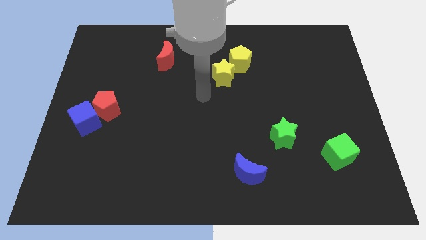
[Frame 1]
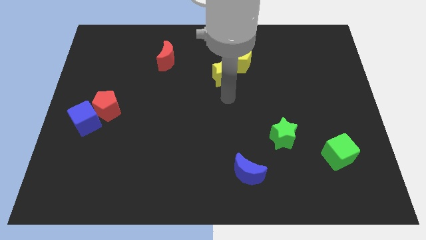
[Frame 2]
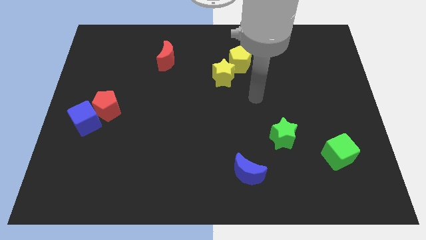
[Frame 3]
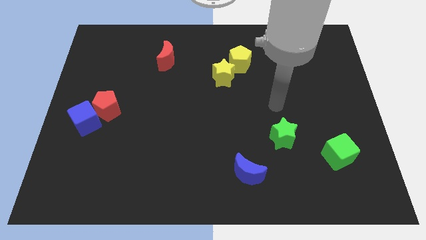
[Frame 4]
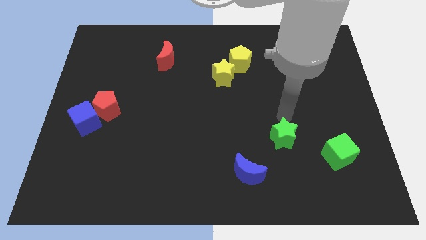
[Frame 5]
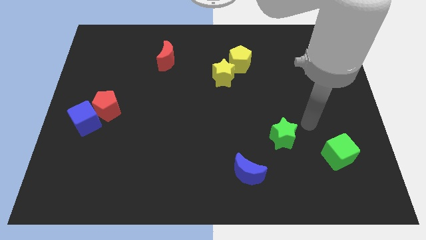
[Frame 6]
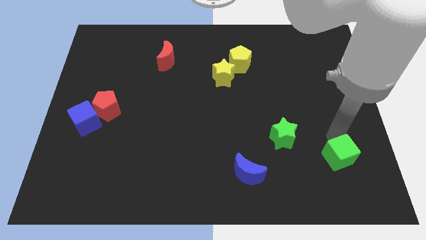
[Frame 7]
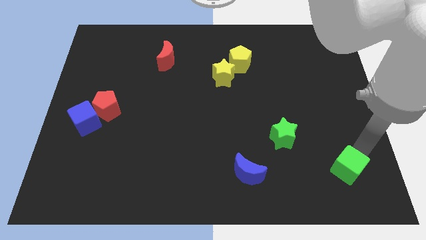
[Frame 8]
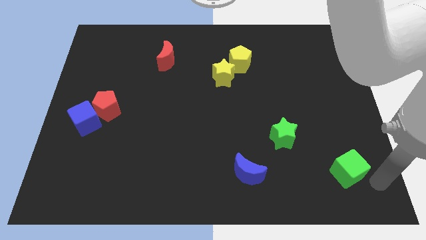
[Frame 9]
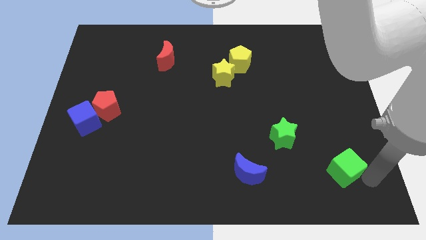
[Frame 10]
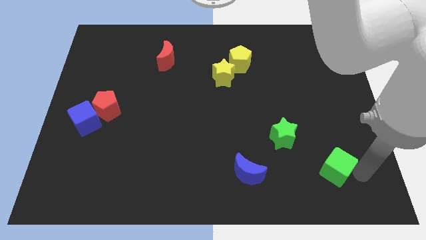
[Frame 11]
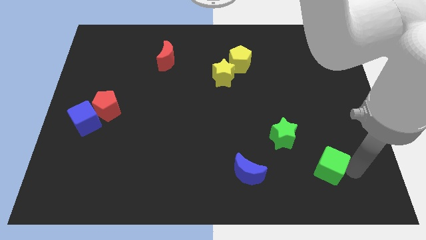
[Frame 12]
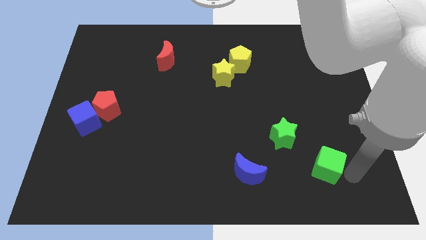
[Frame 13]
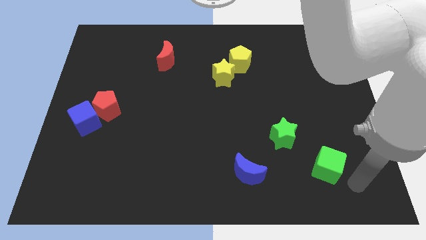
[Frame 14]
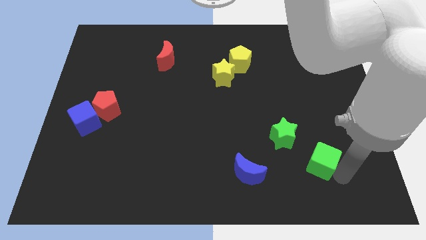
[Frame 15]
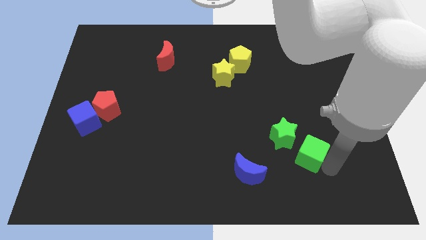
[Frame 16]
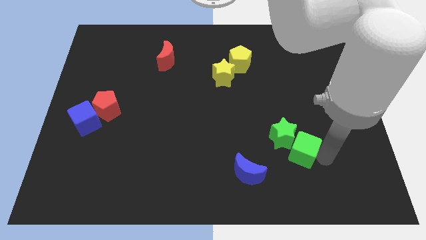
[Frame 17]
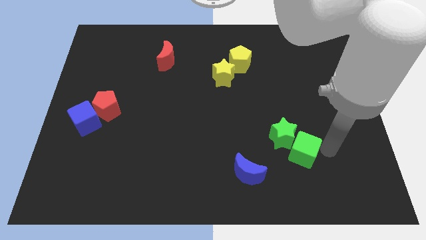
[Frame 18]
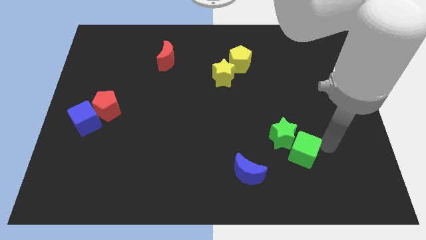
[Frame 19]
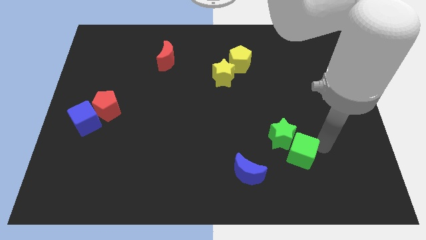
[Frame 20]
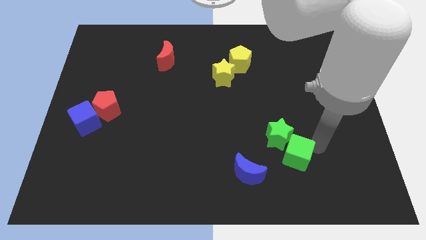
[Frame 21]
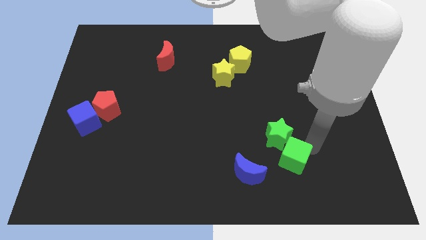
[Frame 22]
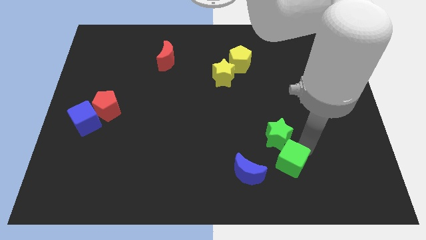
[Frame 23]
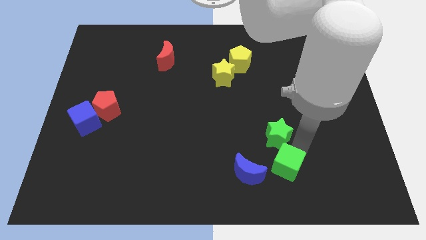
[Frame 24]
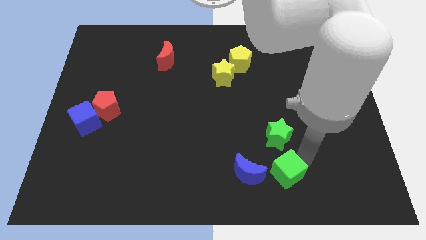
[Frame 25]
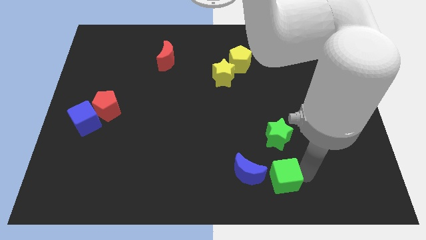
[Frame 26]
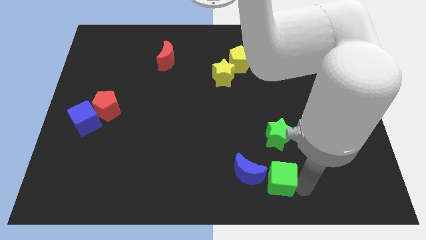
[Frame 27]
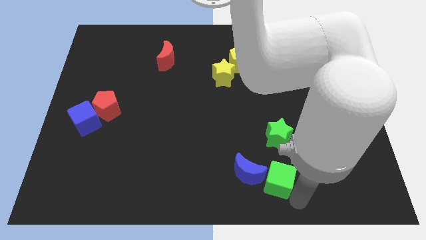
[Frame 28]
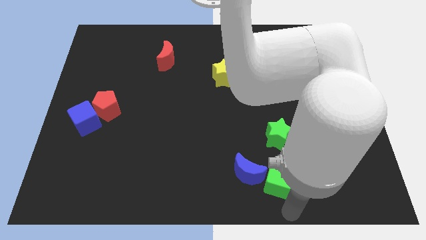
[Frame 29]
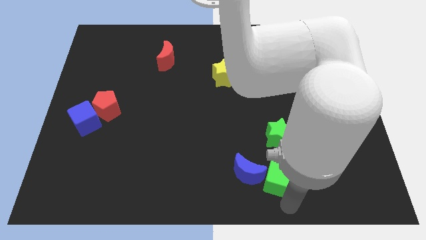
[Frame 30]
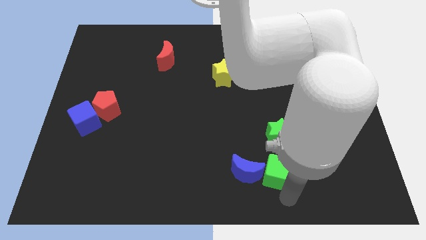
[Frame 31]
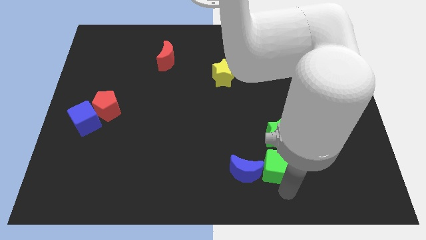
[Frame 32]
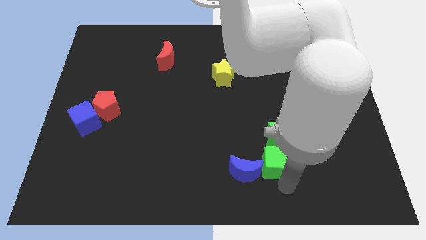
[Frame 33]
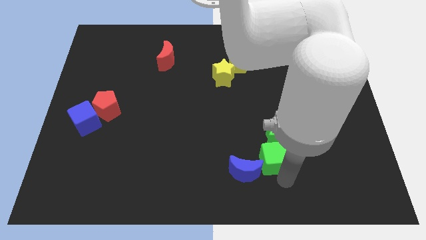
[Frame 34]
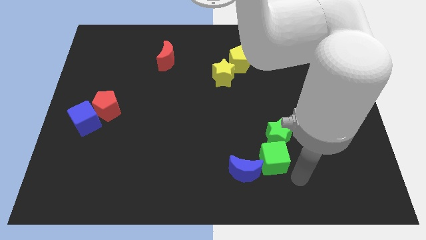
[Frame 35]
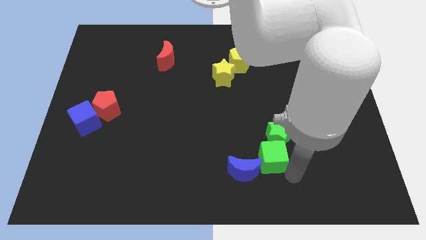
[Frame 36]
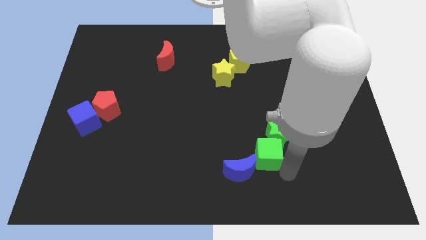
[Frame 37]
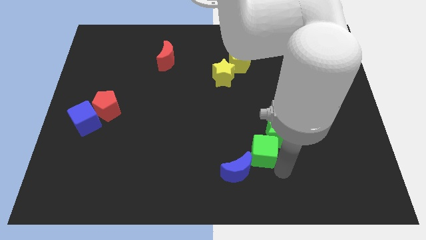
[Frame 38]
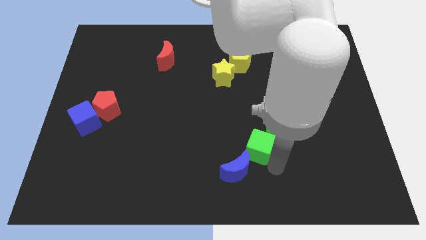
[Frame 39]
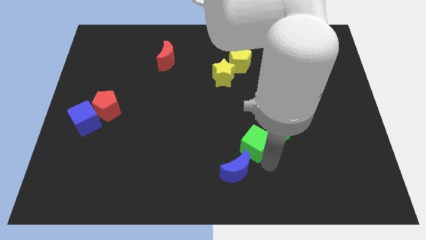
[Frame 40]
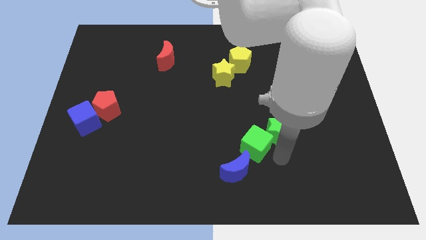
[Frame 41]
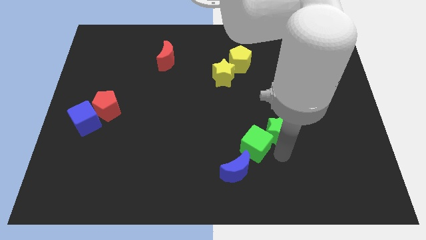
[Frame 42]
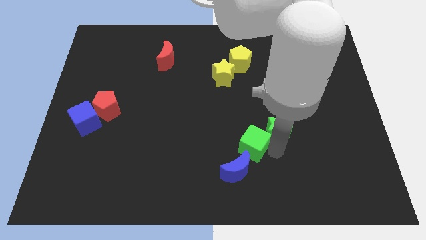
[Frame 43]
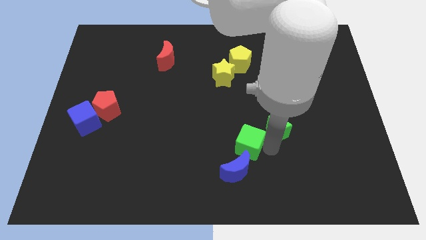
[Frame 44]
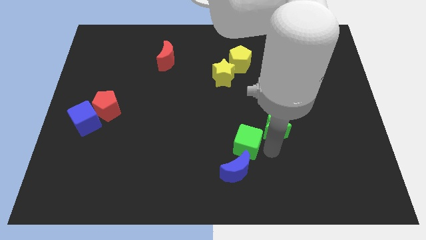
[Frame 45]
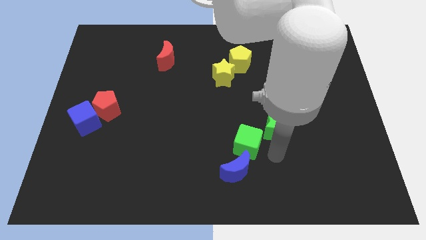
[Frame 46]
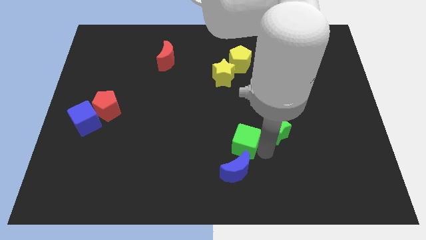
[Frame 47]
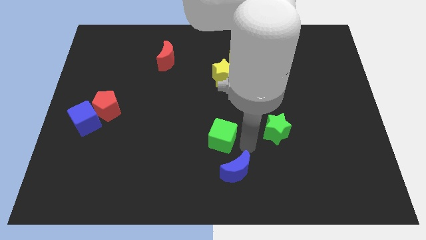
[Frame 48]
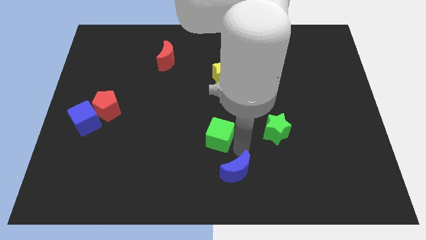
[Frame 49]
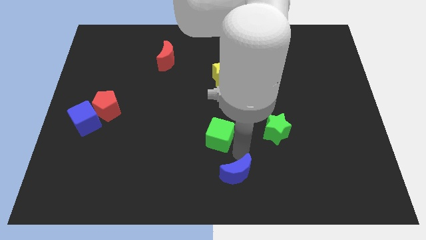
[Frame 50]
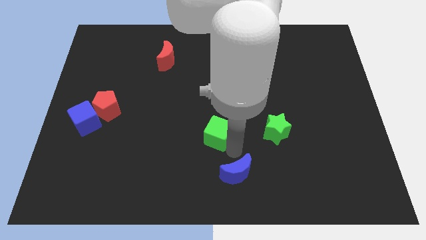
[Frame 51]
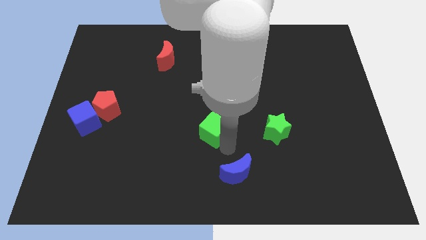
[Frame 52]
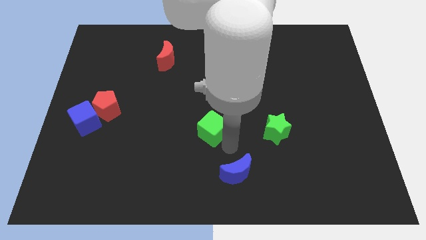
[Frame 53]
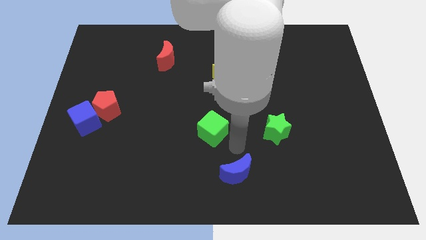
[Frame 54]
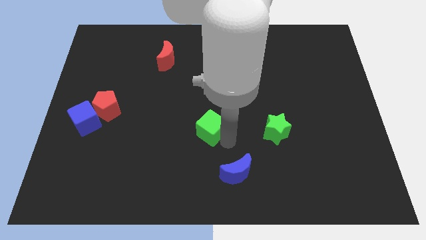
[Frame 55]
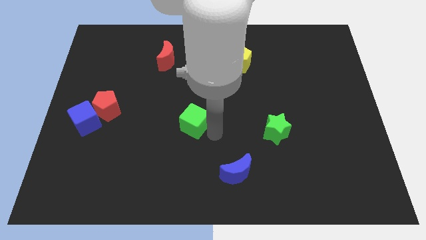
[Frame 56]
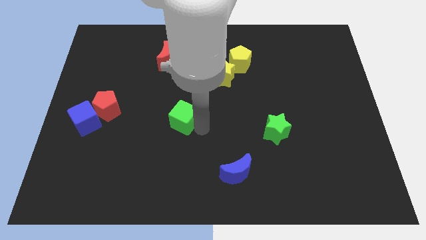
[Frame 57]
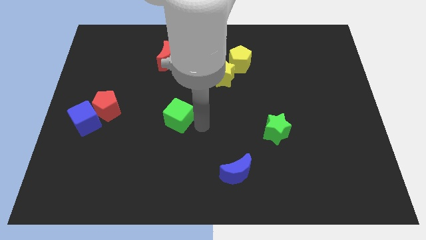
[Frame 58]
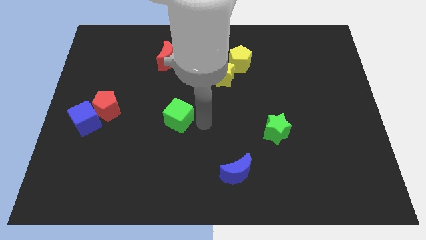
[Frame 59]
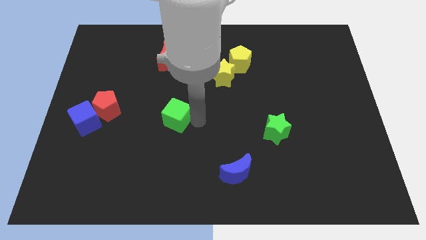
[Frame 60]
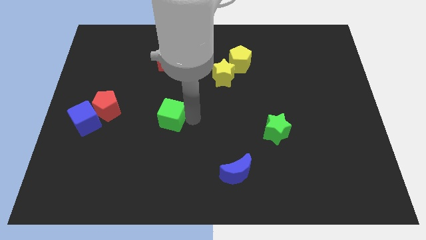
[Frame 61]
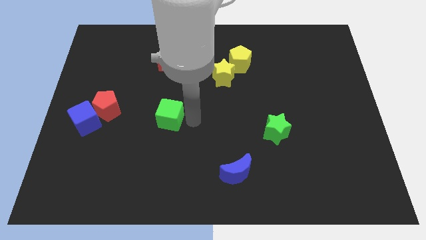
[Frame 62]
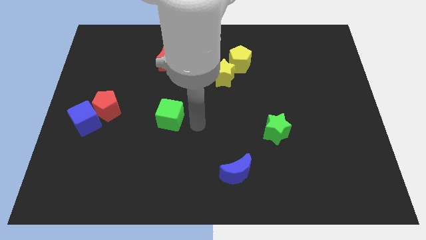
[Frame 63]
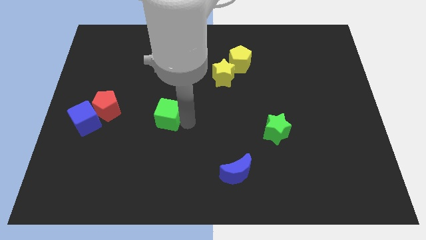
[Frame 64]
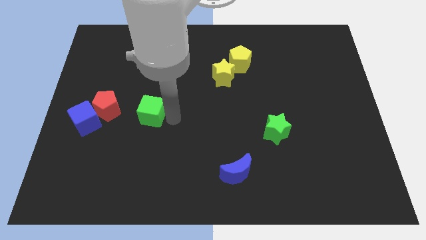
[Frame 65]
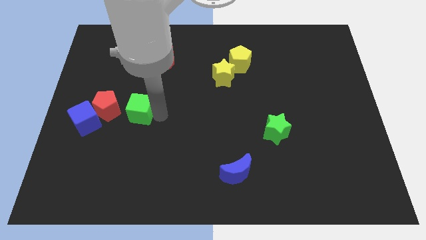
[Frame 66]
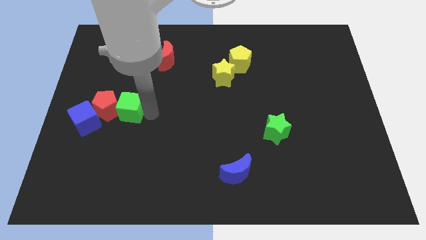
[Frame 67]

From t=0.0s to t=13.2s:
push the green cube next to the red pentagon

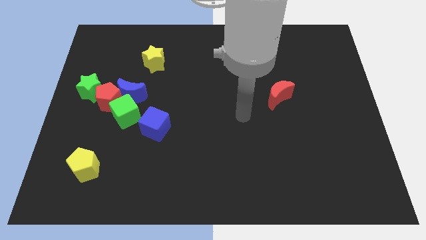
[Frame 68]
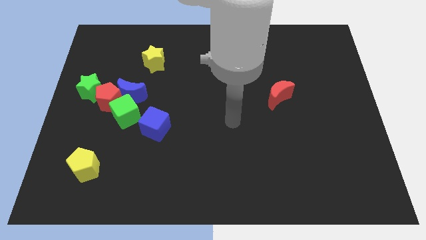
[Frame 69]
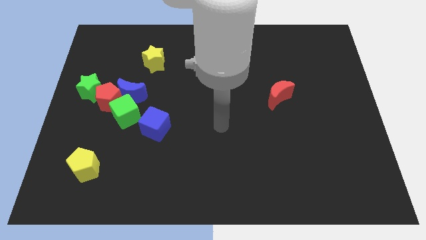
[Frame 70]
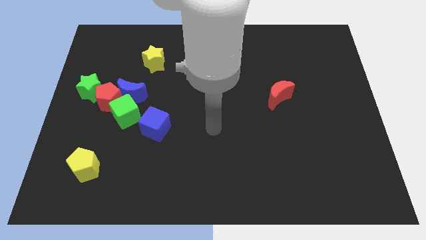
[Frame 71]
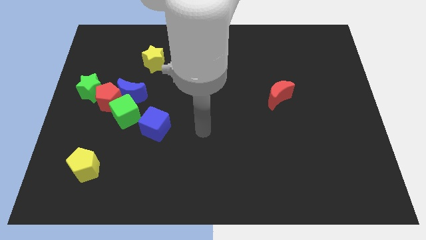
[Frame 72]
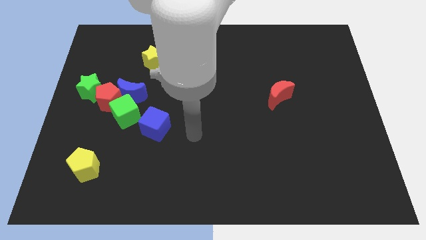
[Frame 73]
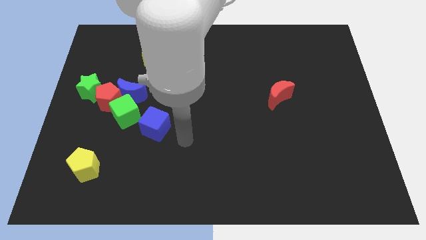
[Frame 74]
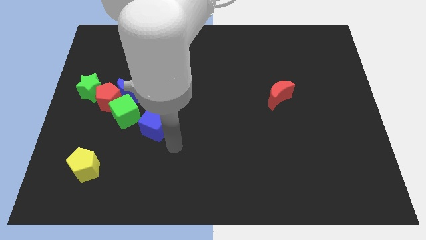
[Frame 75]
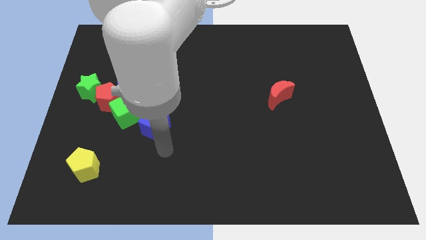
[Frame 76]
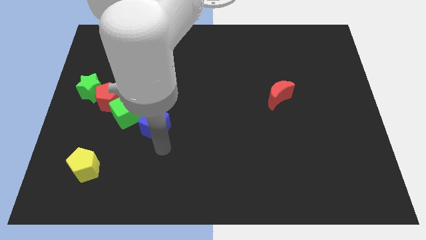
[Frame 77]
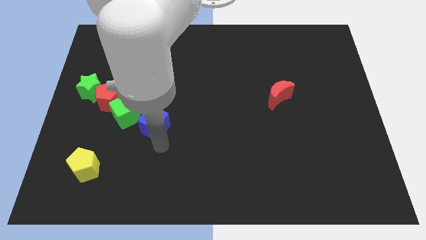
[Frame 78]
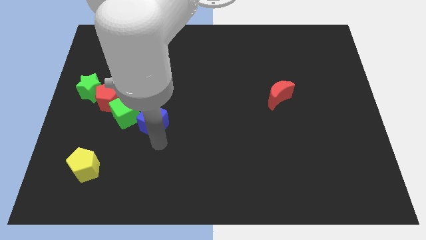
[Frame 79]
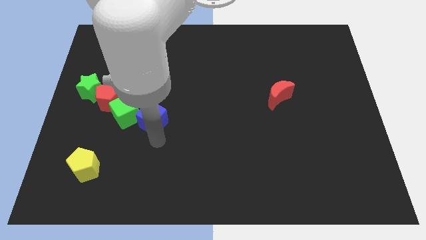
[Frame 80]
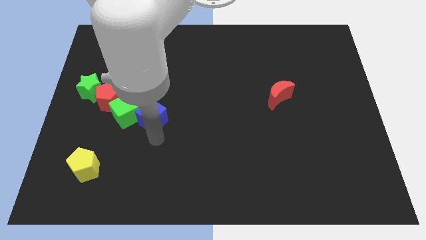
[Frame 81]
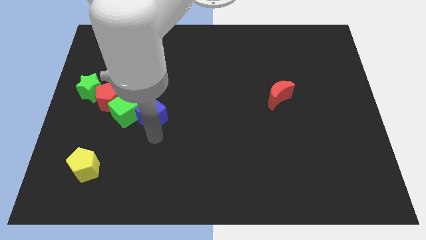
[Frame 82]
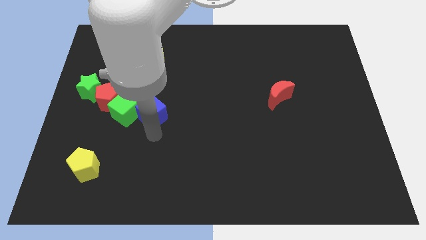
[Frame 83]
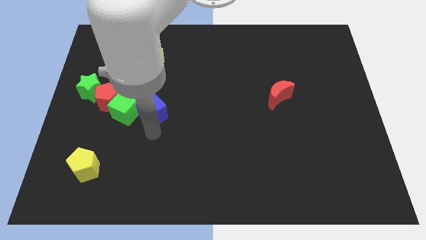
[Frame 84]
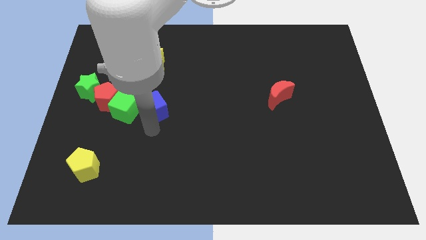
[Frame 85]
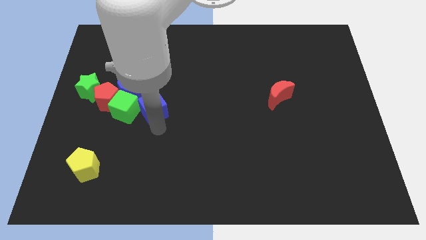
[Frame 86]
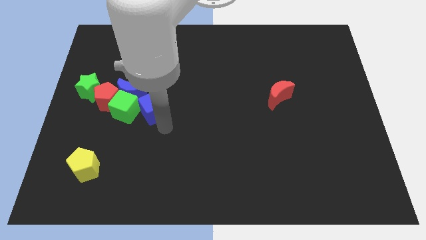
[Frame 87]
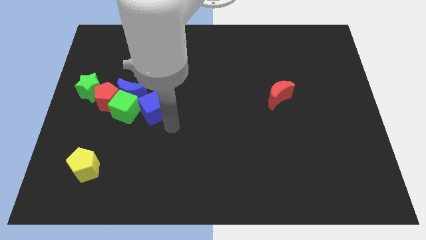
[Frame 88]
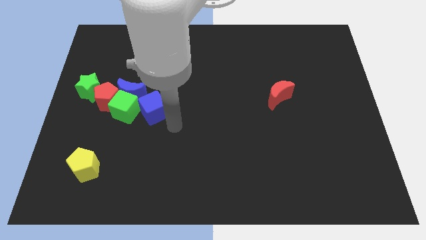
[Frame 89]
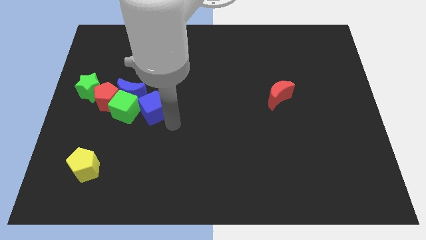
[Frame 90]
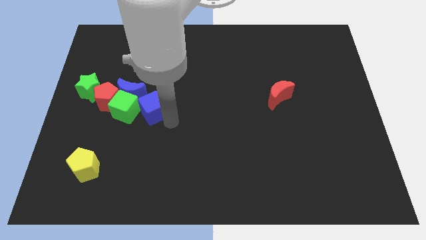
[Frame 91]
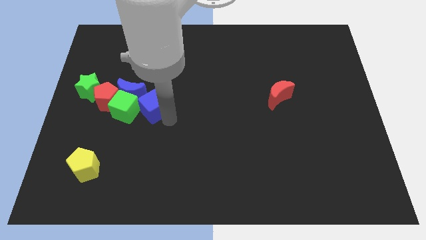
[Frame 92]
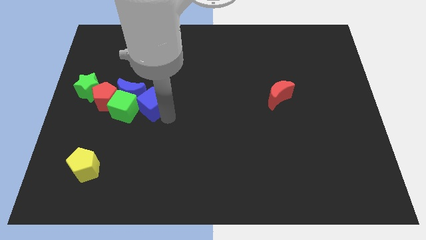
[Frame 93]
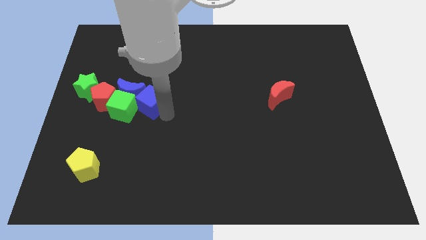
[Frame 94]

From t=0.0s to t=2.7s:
put the blue cube towards the blue moon
